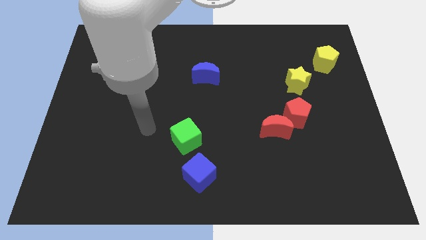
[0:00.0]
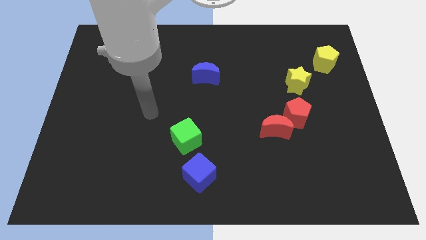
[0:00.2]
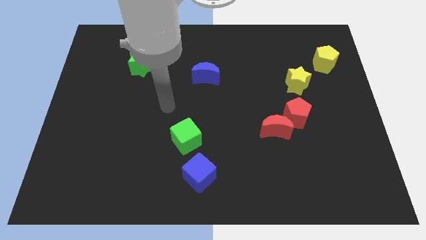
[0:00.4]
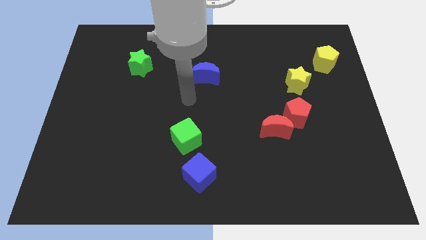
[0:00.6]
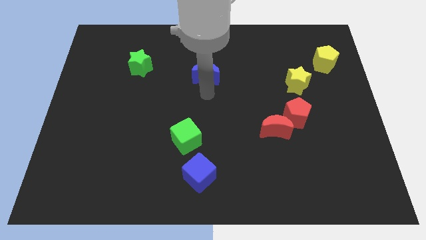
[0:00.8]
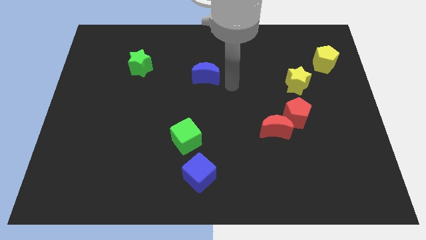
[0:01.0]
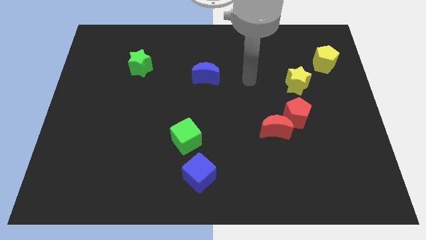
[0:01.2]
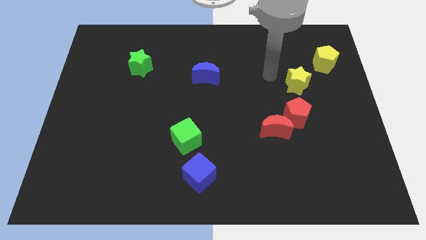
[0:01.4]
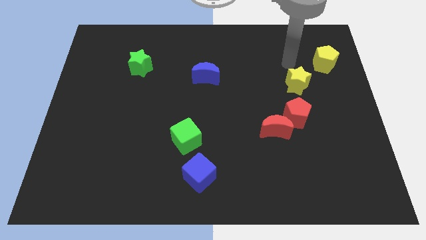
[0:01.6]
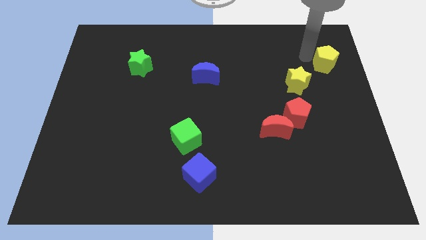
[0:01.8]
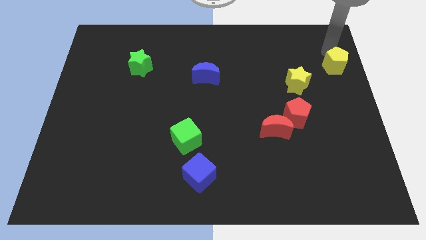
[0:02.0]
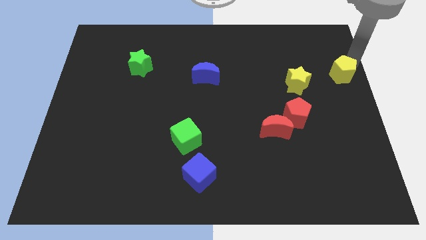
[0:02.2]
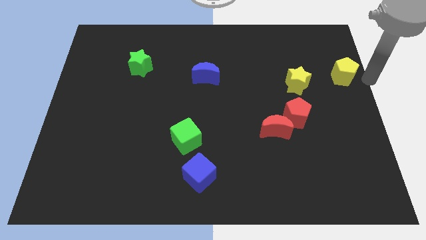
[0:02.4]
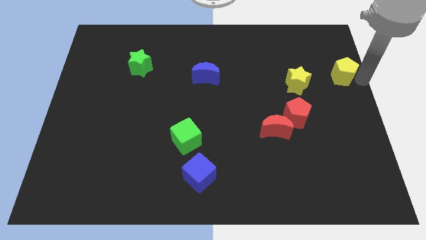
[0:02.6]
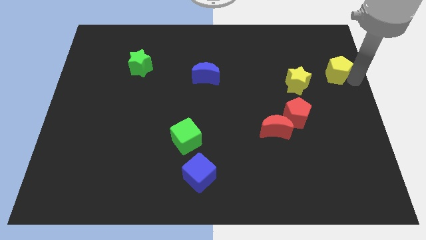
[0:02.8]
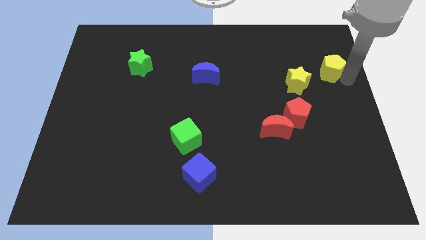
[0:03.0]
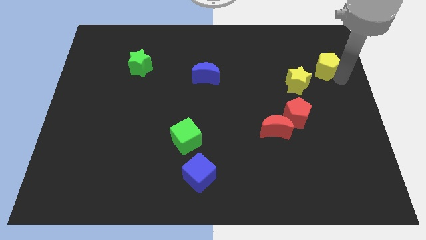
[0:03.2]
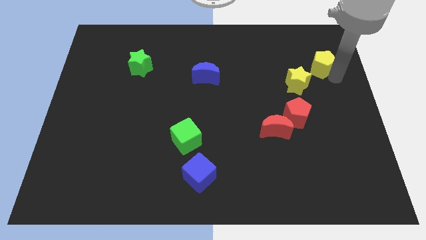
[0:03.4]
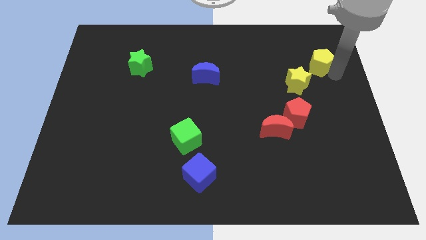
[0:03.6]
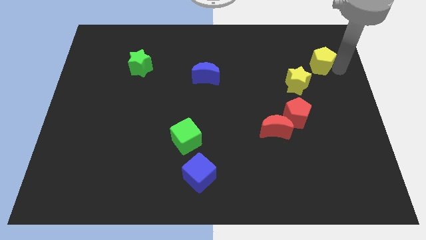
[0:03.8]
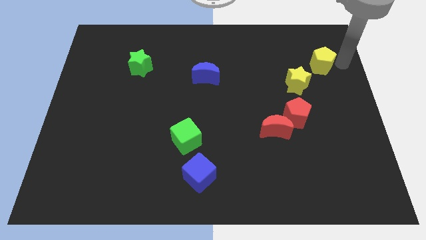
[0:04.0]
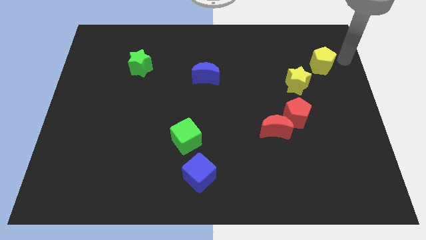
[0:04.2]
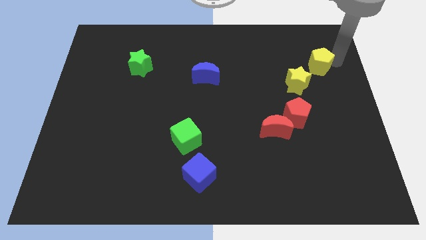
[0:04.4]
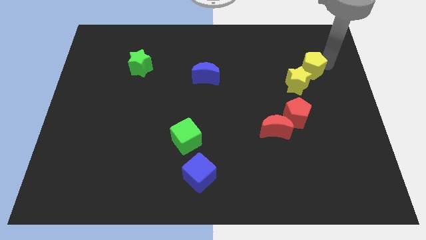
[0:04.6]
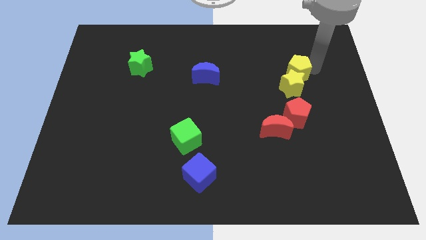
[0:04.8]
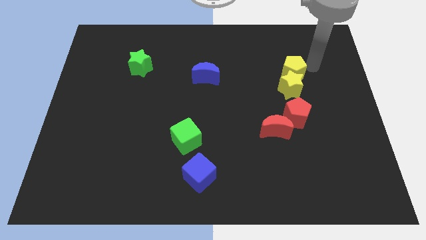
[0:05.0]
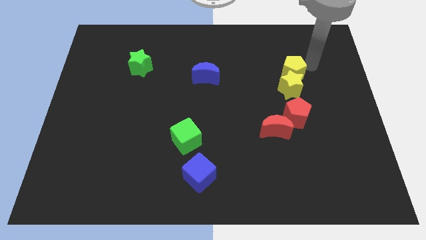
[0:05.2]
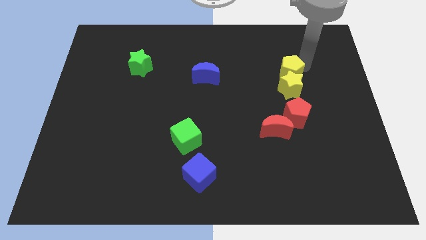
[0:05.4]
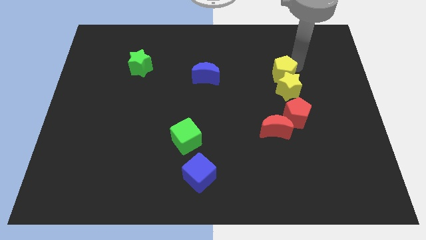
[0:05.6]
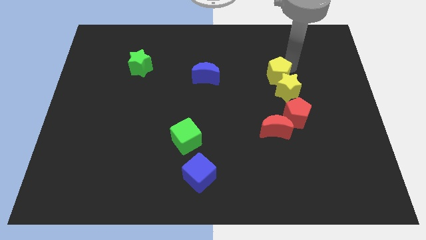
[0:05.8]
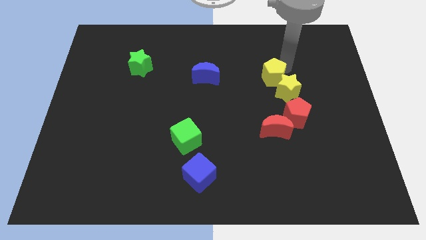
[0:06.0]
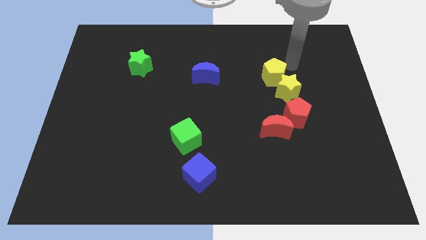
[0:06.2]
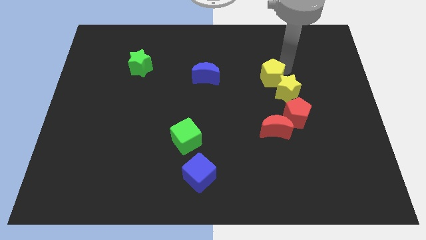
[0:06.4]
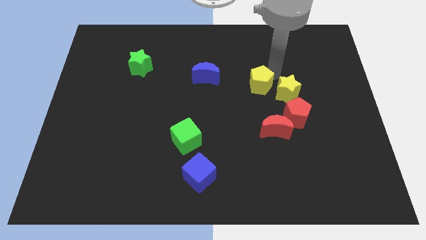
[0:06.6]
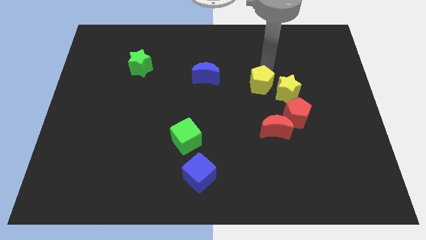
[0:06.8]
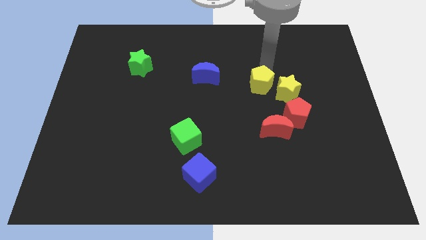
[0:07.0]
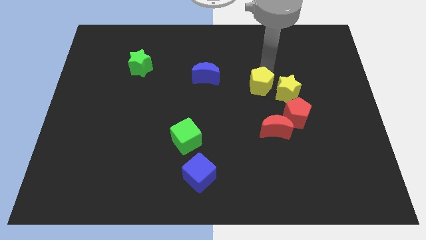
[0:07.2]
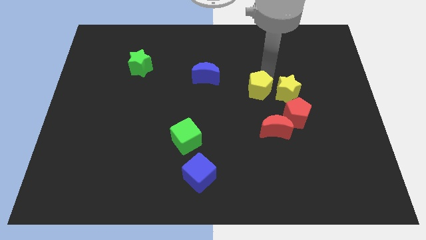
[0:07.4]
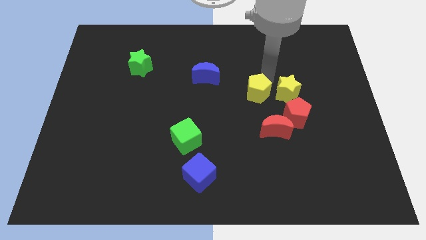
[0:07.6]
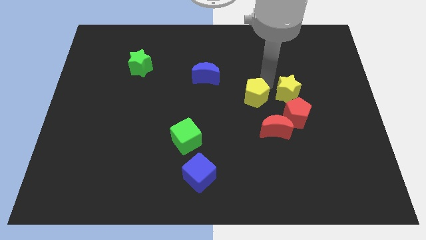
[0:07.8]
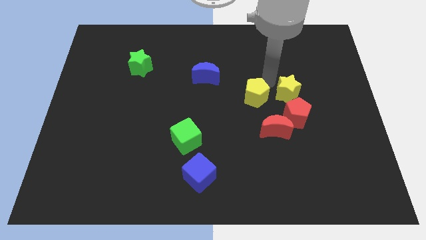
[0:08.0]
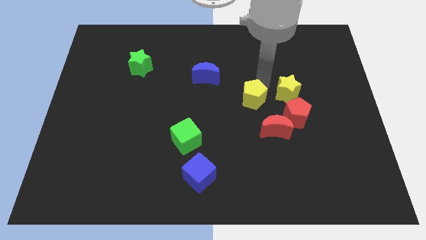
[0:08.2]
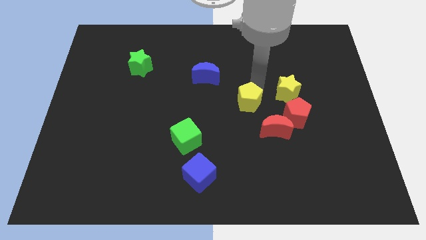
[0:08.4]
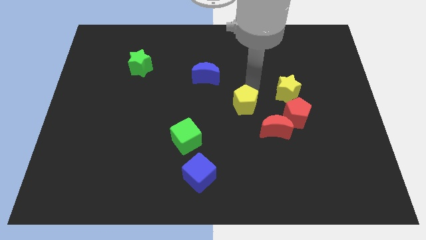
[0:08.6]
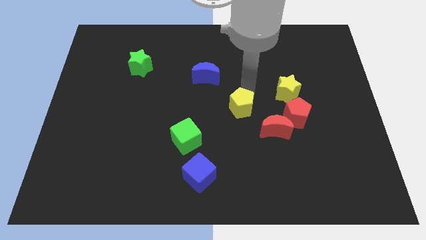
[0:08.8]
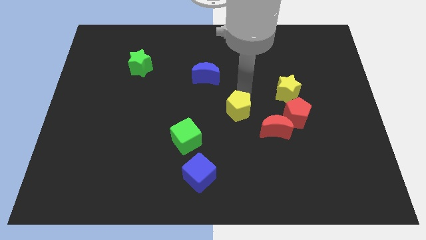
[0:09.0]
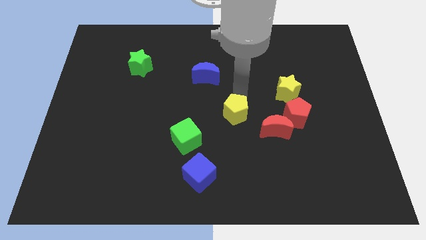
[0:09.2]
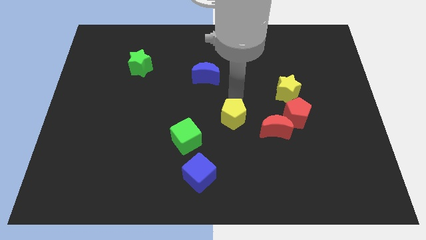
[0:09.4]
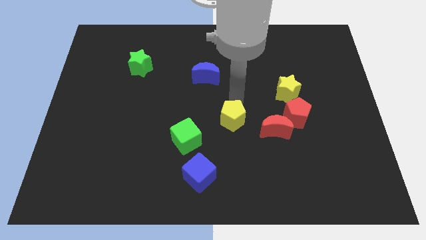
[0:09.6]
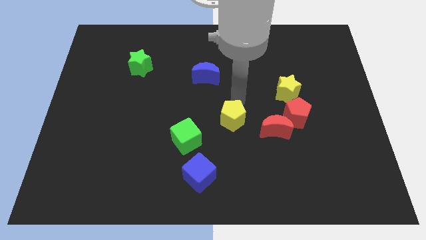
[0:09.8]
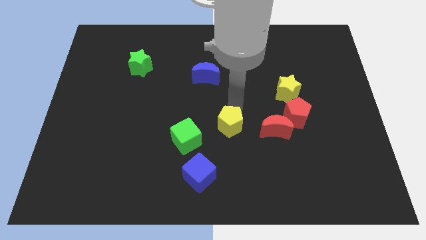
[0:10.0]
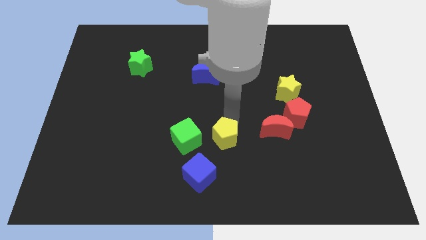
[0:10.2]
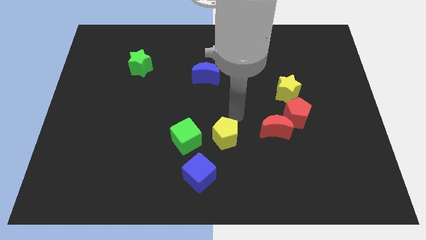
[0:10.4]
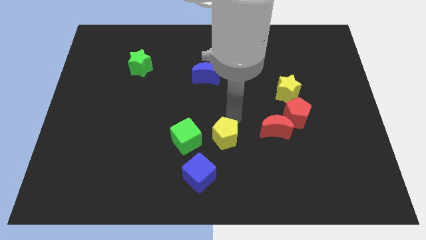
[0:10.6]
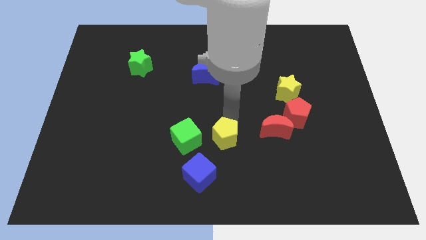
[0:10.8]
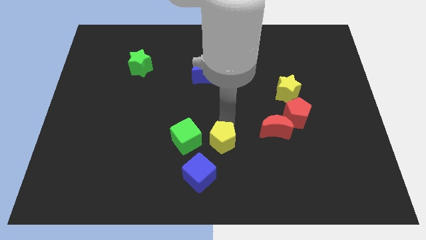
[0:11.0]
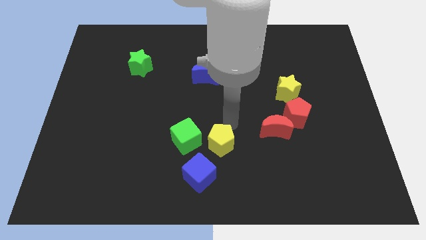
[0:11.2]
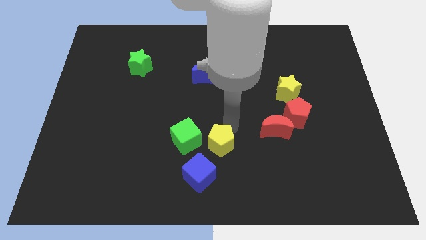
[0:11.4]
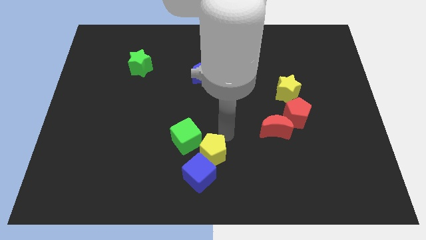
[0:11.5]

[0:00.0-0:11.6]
move the yellow pentagon close to the blue cube
